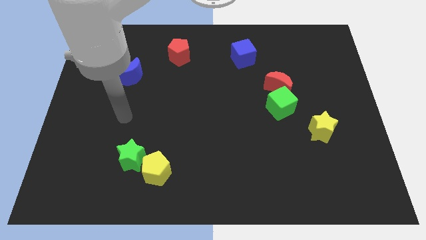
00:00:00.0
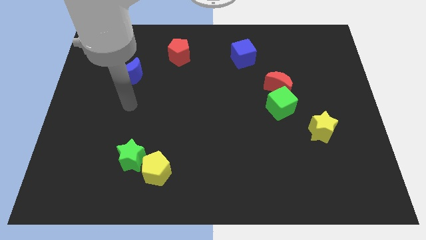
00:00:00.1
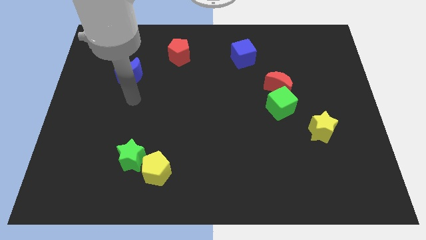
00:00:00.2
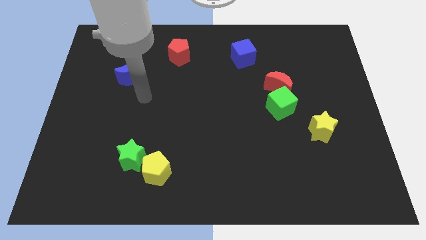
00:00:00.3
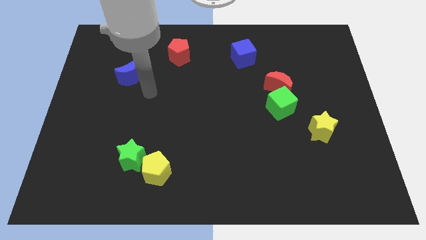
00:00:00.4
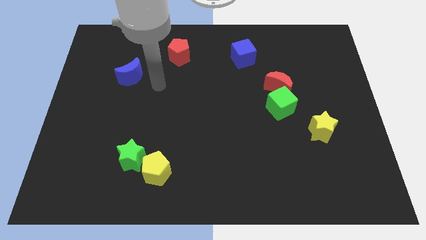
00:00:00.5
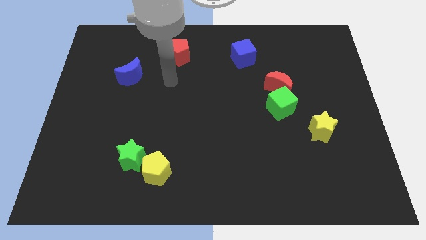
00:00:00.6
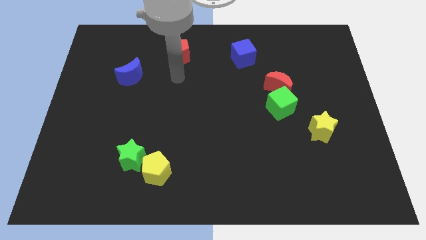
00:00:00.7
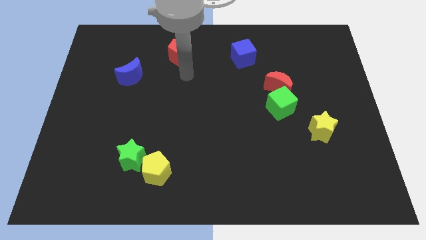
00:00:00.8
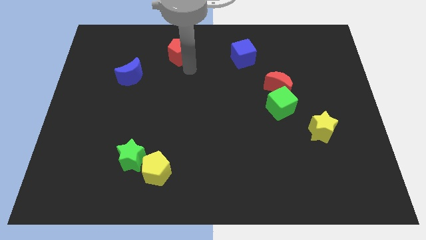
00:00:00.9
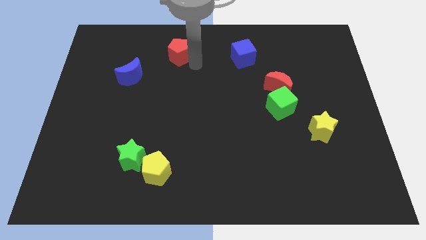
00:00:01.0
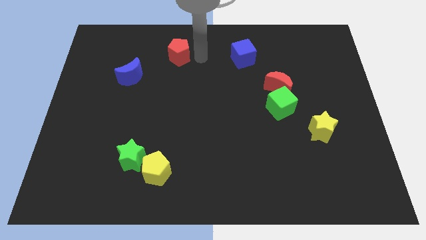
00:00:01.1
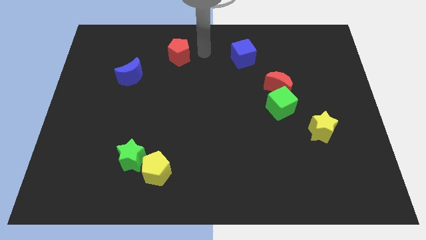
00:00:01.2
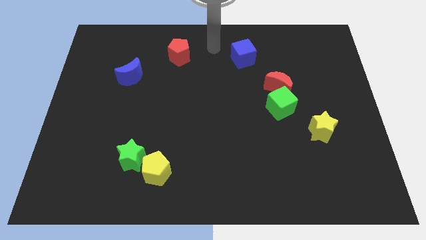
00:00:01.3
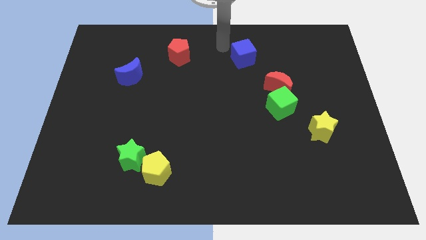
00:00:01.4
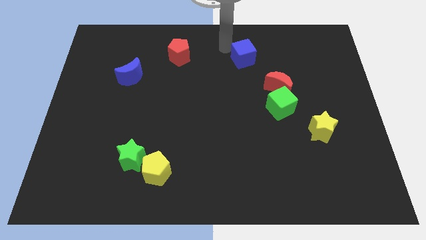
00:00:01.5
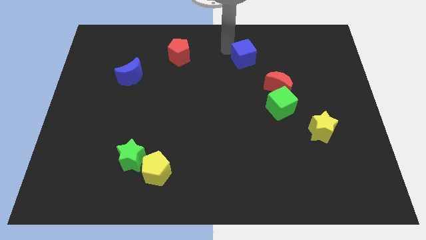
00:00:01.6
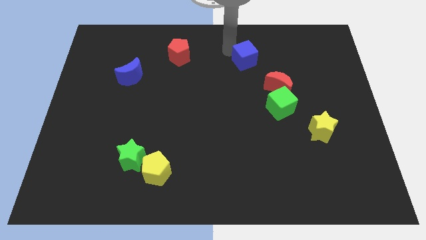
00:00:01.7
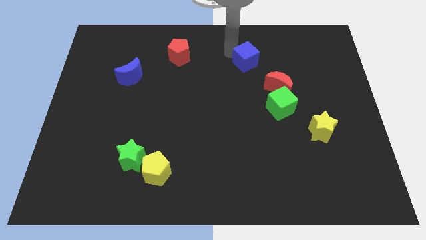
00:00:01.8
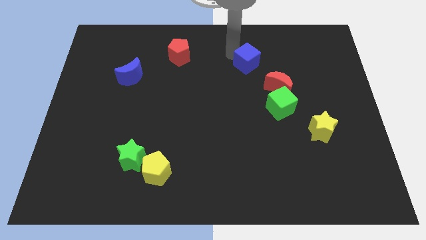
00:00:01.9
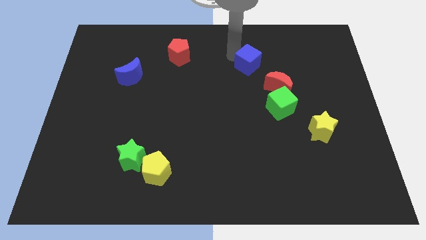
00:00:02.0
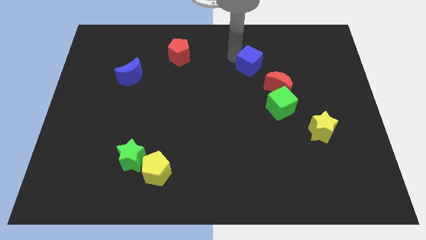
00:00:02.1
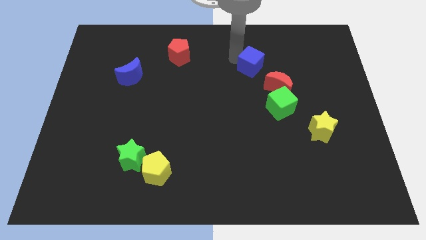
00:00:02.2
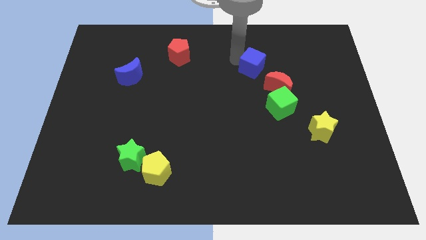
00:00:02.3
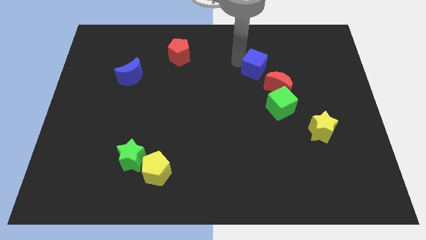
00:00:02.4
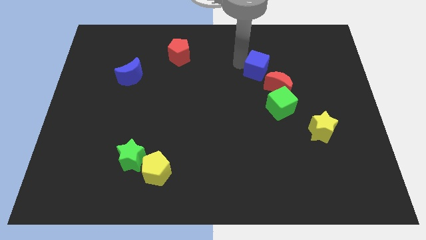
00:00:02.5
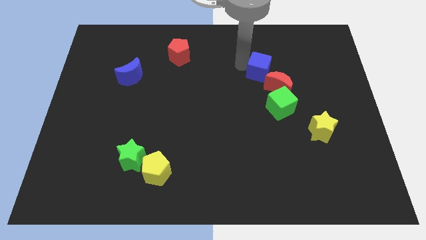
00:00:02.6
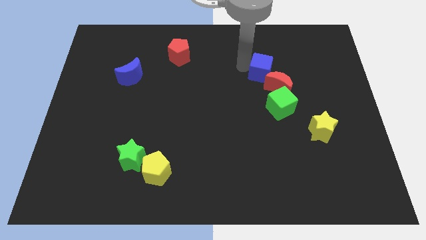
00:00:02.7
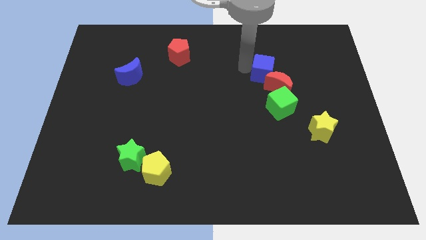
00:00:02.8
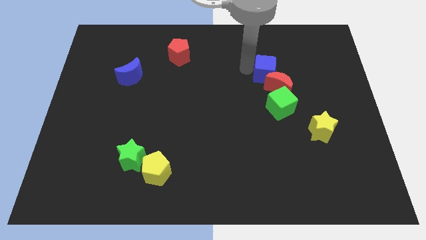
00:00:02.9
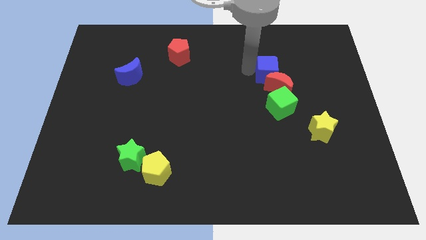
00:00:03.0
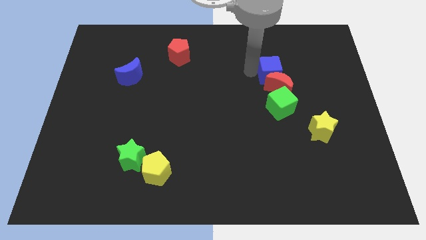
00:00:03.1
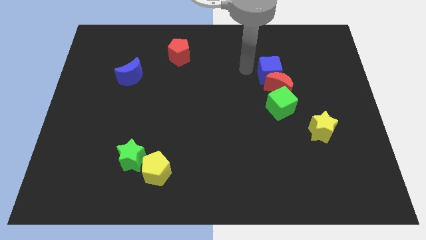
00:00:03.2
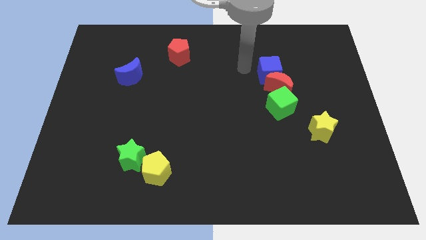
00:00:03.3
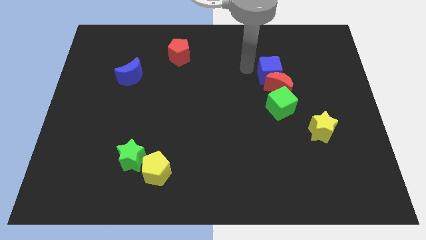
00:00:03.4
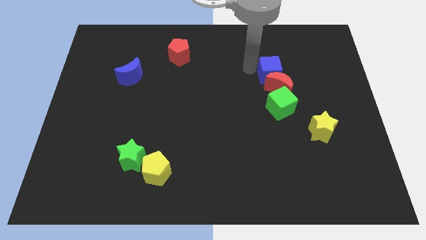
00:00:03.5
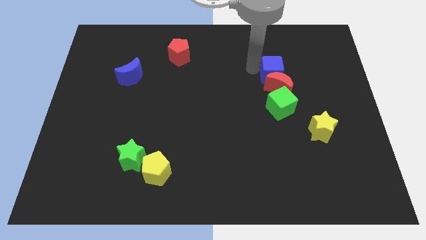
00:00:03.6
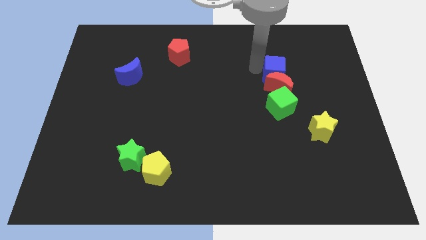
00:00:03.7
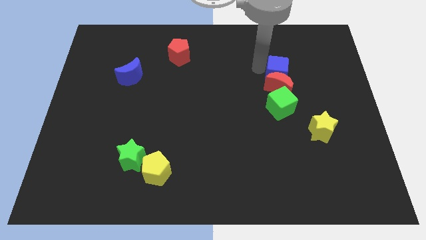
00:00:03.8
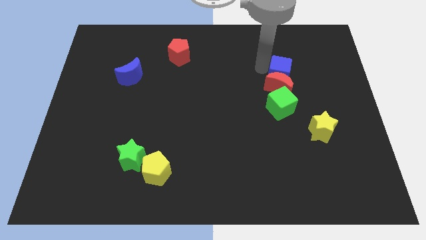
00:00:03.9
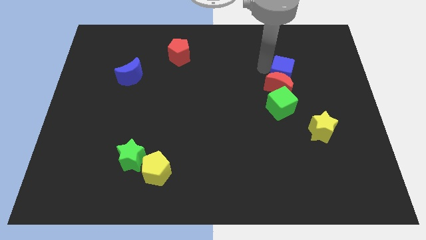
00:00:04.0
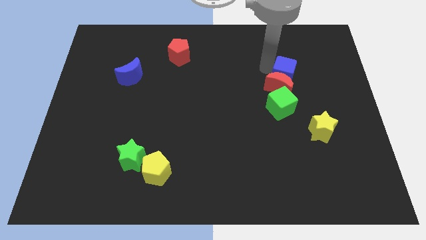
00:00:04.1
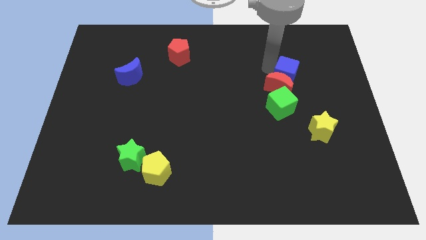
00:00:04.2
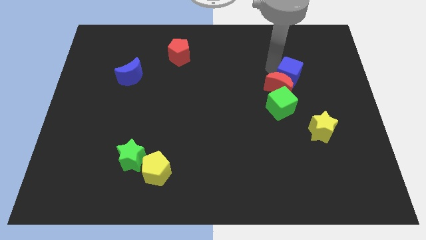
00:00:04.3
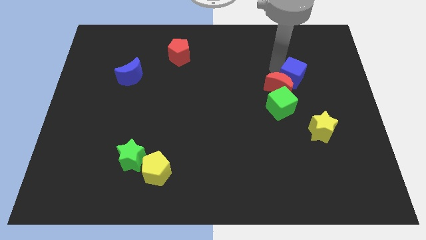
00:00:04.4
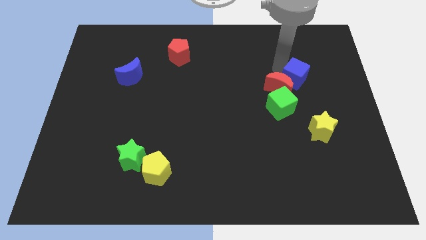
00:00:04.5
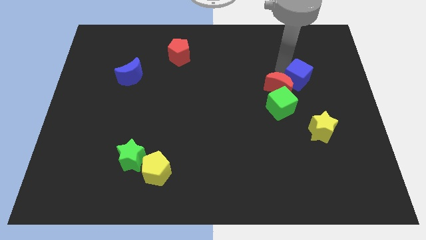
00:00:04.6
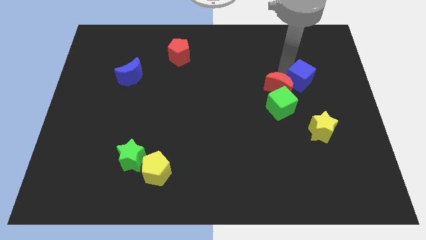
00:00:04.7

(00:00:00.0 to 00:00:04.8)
put the blue cube to the top of the yellow star

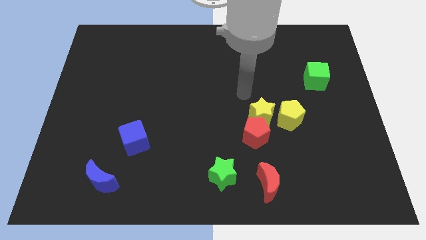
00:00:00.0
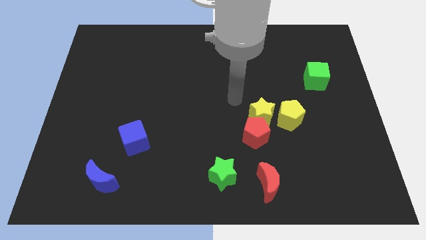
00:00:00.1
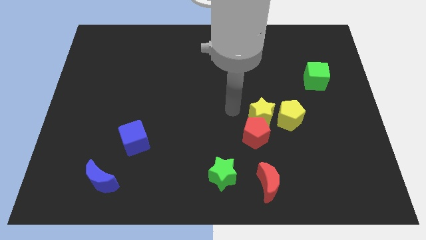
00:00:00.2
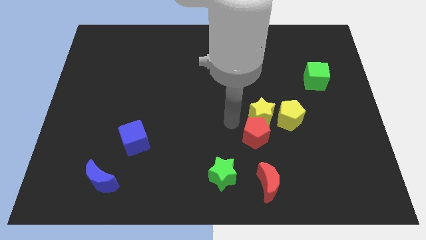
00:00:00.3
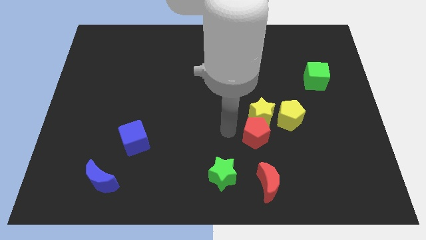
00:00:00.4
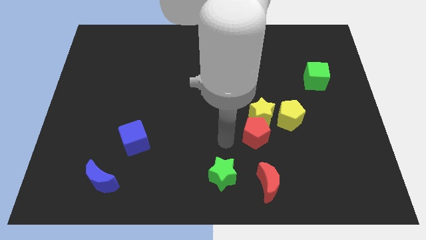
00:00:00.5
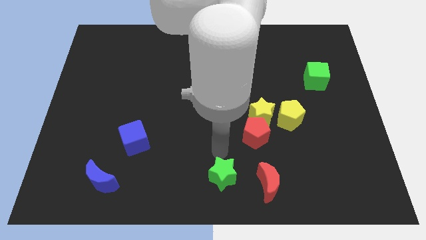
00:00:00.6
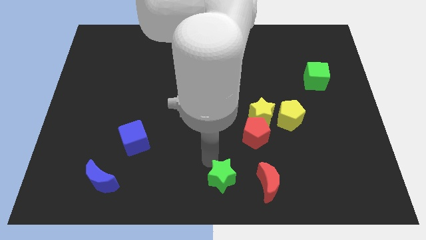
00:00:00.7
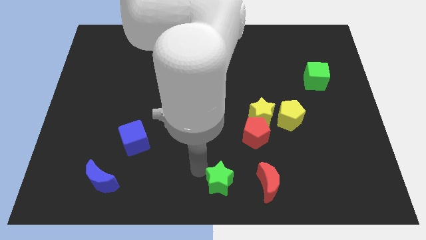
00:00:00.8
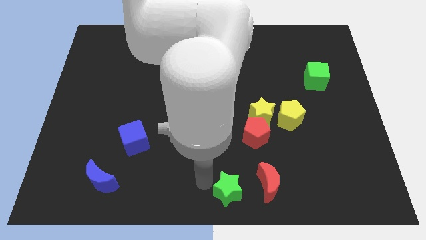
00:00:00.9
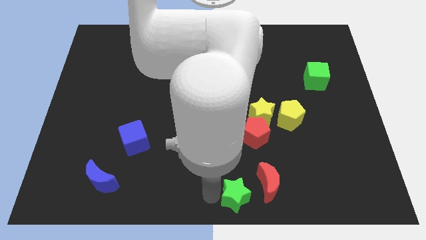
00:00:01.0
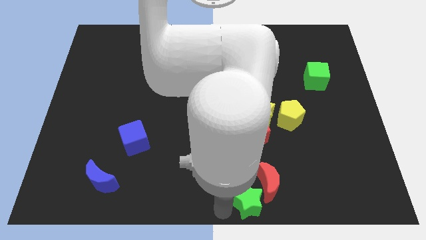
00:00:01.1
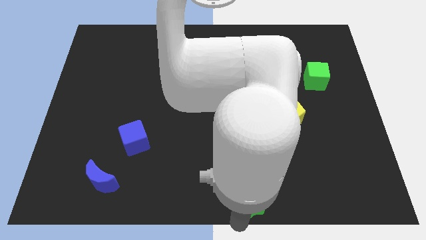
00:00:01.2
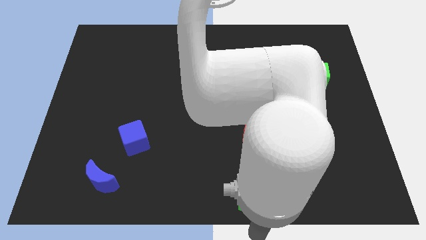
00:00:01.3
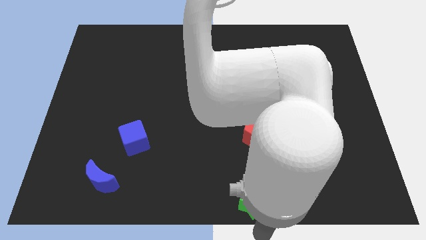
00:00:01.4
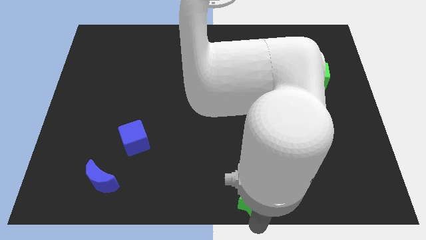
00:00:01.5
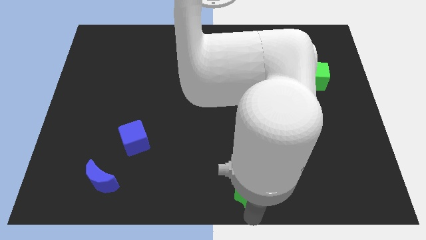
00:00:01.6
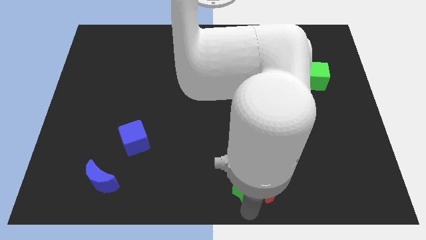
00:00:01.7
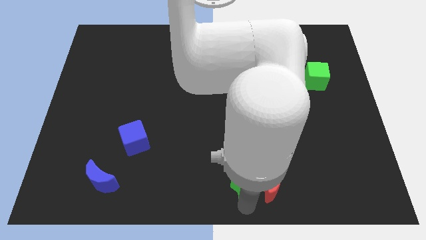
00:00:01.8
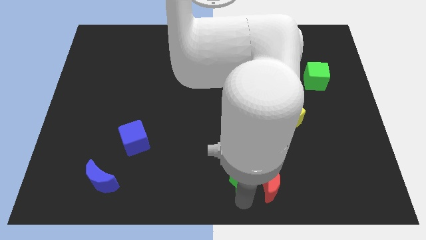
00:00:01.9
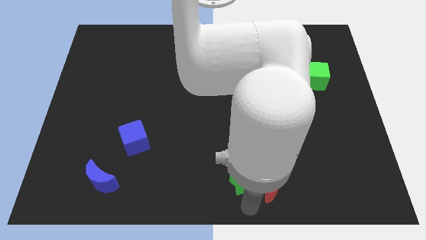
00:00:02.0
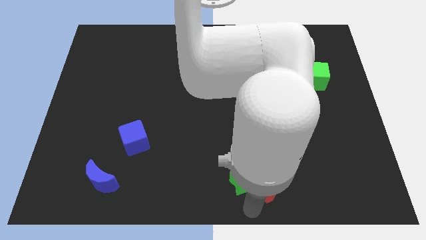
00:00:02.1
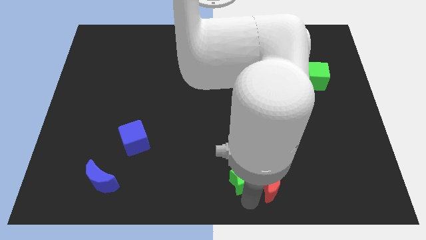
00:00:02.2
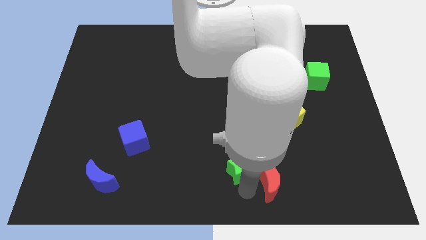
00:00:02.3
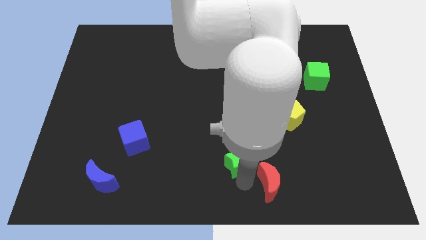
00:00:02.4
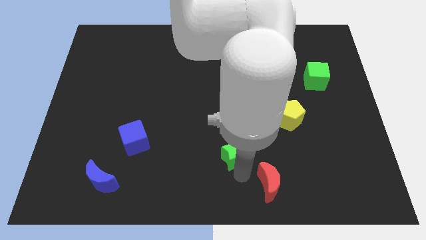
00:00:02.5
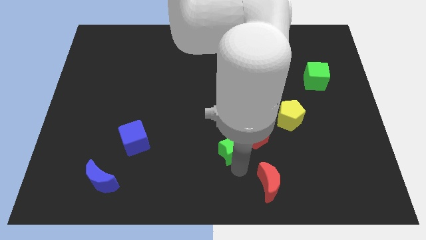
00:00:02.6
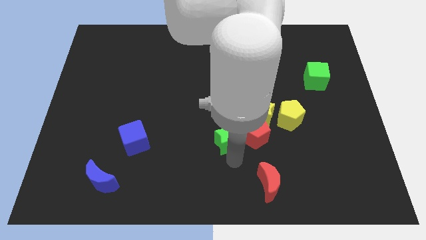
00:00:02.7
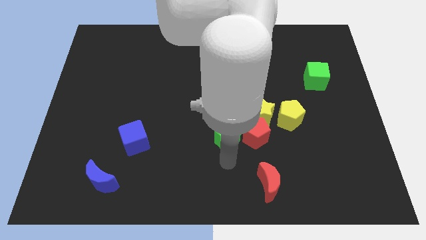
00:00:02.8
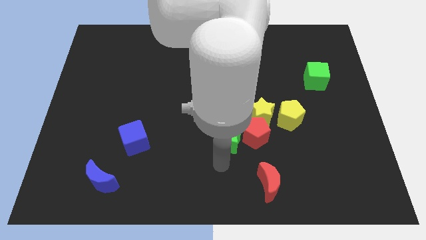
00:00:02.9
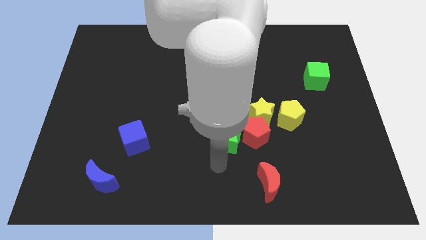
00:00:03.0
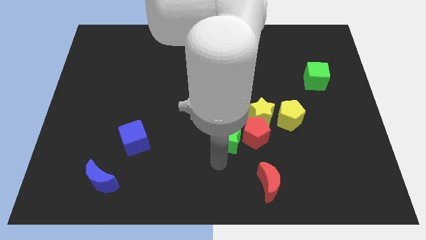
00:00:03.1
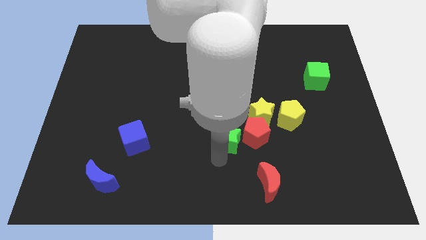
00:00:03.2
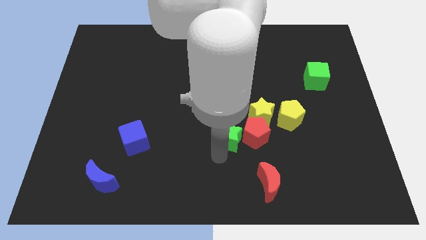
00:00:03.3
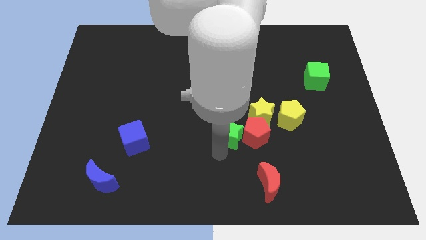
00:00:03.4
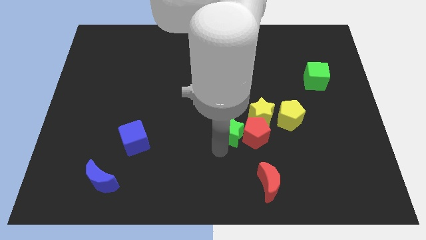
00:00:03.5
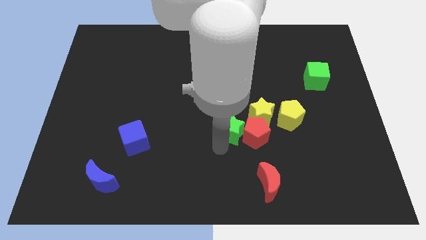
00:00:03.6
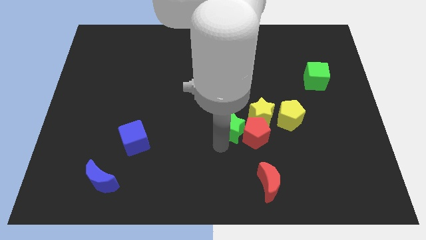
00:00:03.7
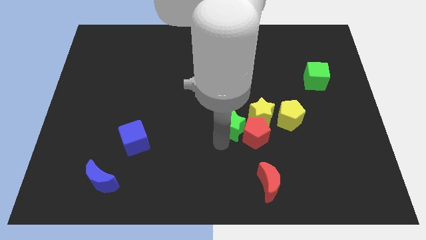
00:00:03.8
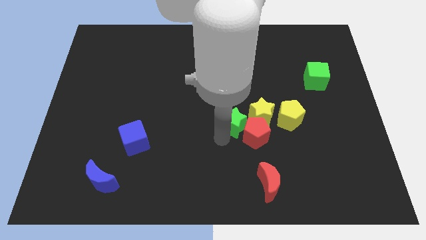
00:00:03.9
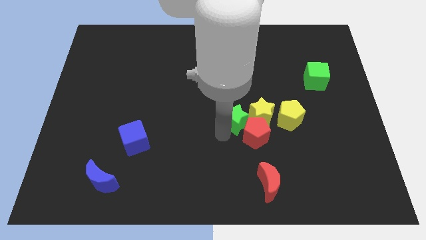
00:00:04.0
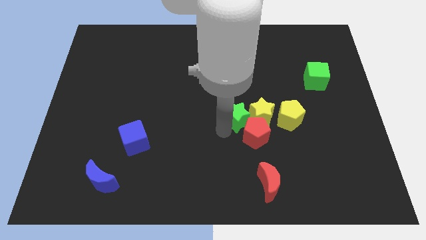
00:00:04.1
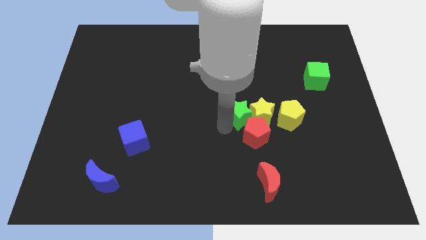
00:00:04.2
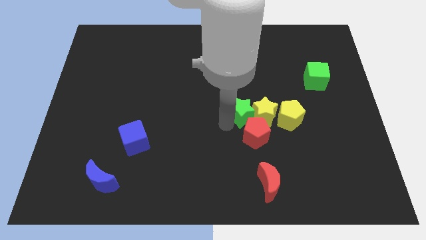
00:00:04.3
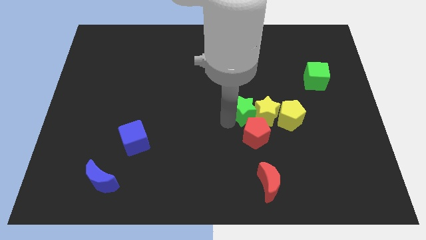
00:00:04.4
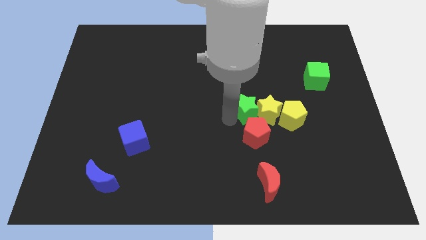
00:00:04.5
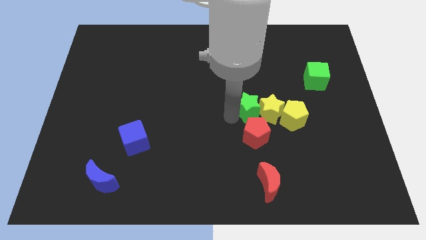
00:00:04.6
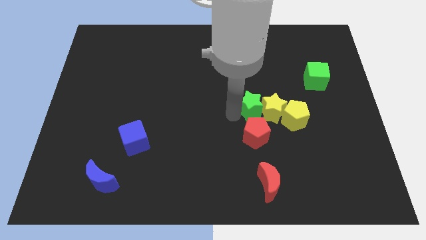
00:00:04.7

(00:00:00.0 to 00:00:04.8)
slide the green star diagonally up and to the left of the yellow pentagon
